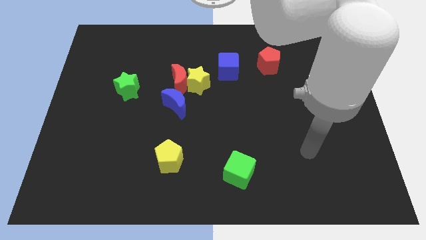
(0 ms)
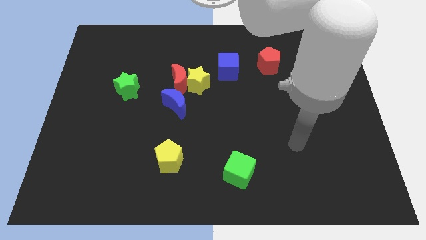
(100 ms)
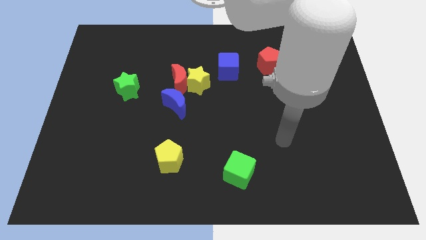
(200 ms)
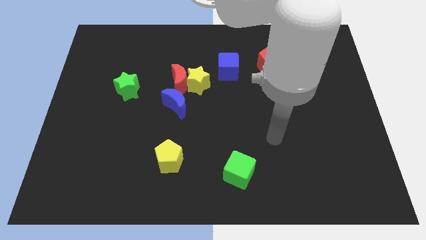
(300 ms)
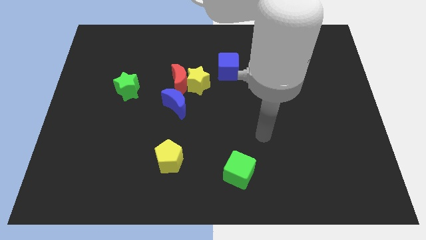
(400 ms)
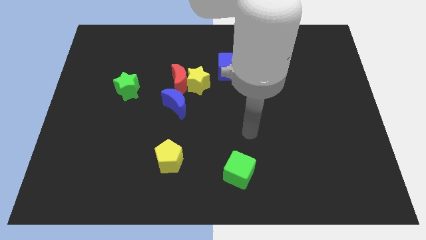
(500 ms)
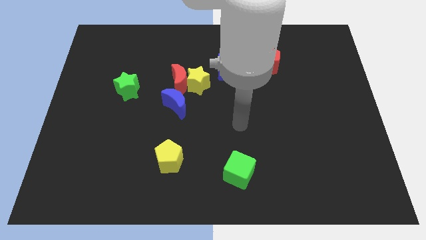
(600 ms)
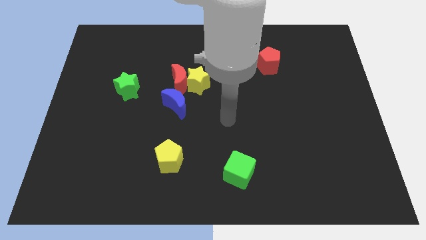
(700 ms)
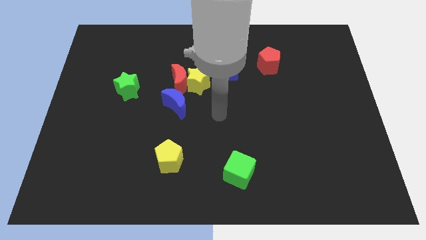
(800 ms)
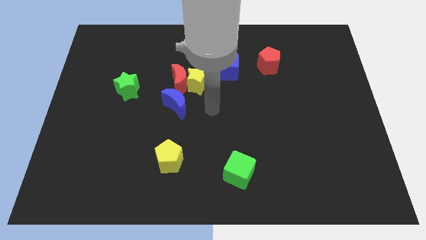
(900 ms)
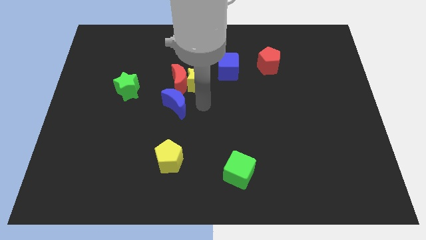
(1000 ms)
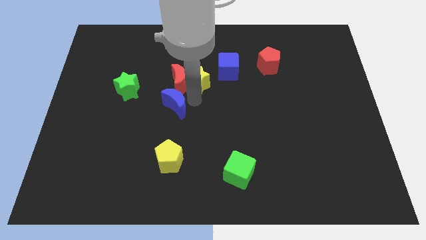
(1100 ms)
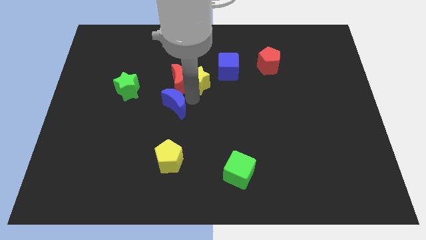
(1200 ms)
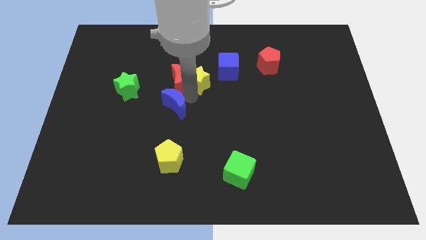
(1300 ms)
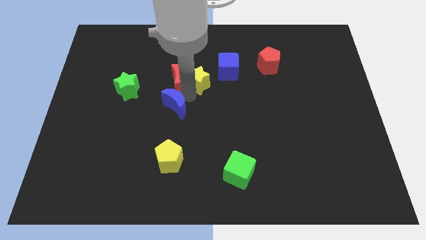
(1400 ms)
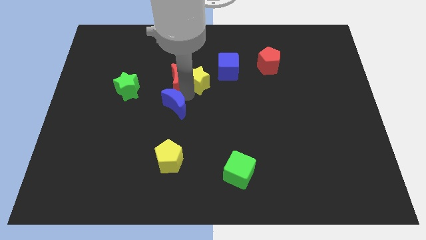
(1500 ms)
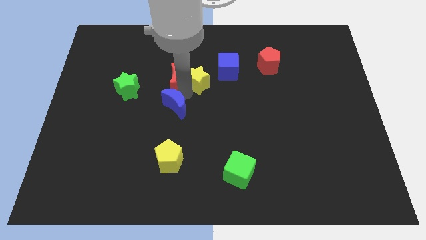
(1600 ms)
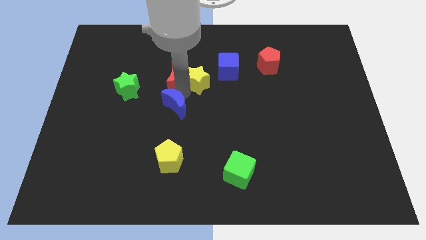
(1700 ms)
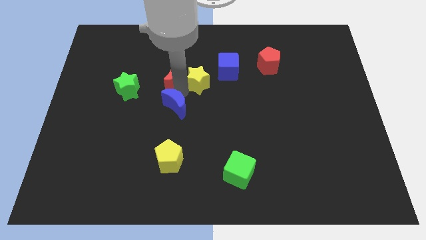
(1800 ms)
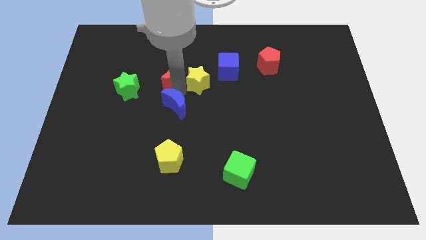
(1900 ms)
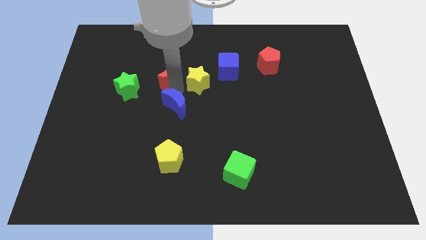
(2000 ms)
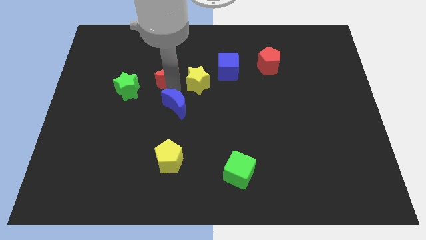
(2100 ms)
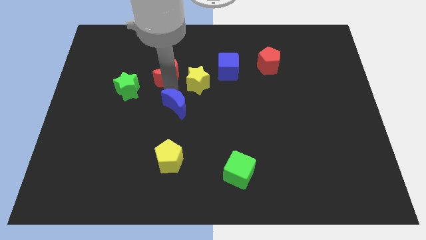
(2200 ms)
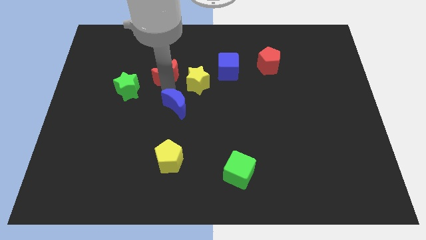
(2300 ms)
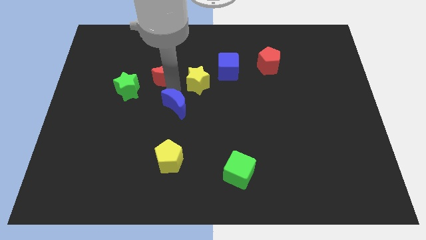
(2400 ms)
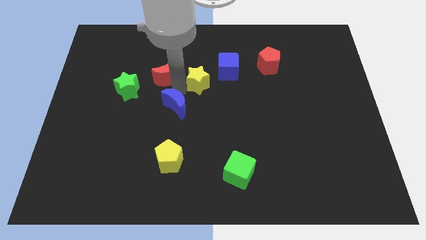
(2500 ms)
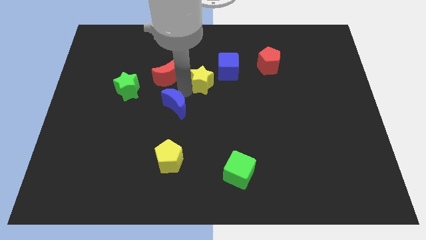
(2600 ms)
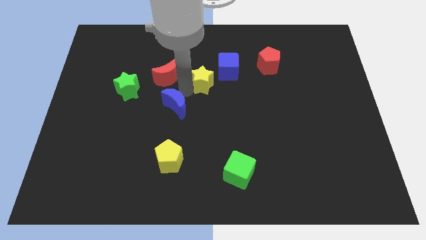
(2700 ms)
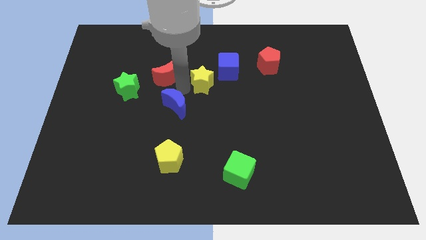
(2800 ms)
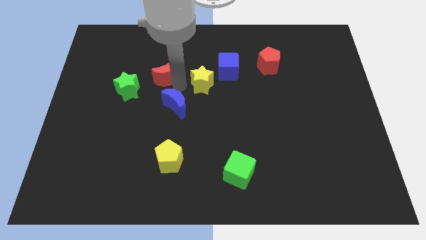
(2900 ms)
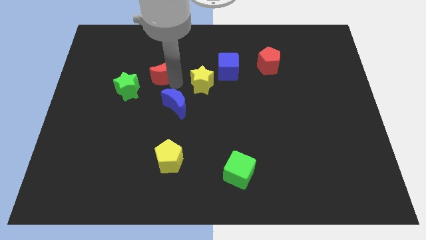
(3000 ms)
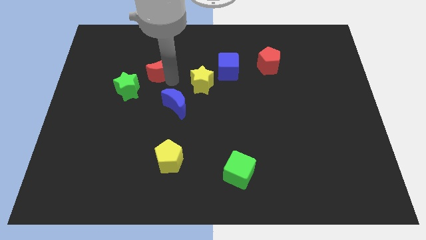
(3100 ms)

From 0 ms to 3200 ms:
move the red moon away from the yellow star and blue moon

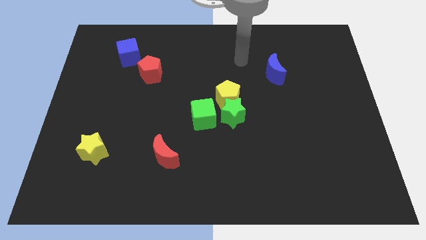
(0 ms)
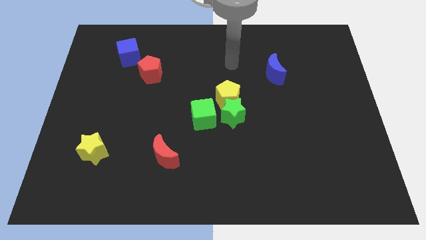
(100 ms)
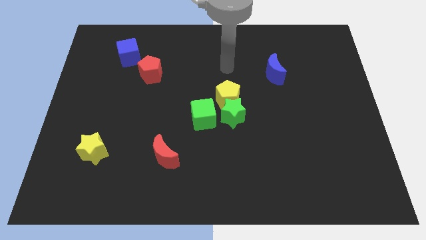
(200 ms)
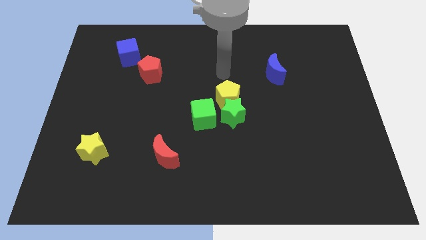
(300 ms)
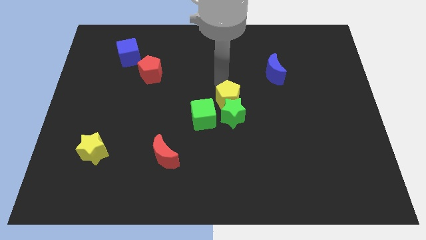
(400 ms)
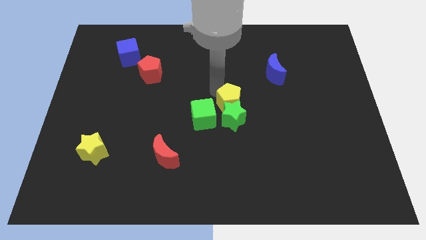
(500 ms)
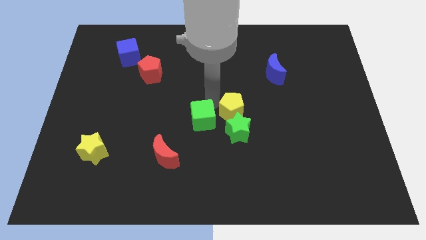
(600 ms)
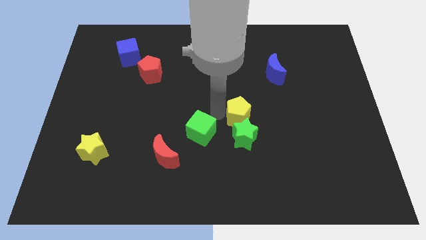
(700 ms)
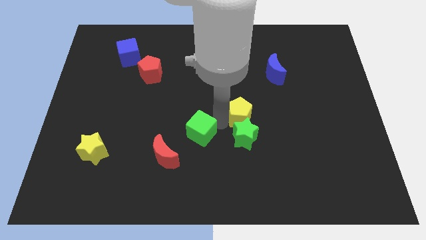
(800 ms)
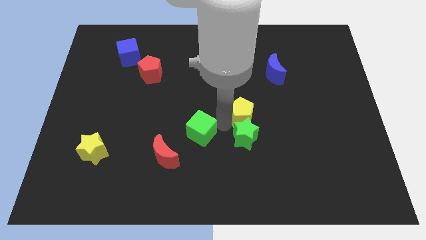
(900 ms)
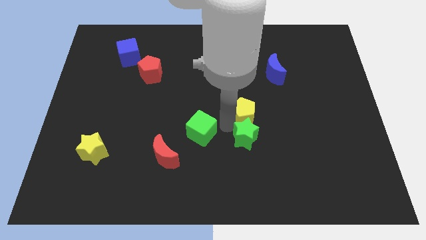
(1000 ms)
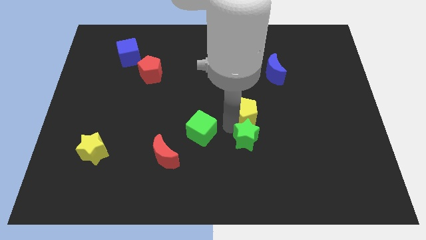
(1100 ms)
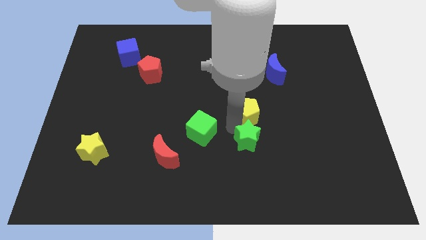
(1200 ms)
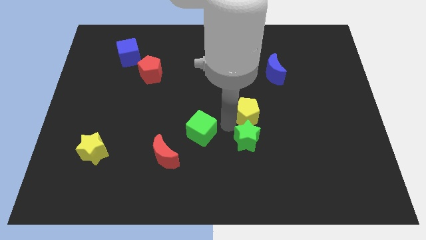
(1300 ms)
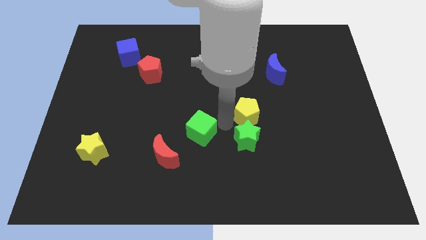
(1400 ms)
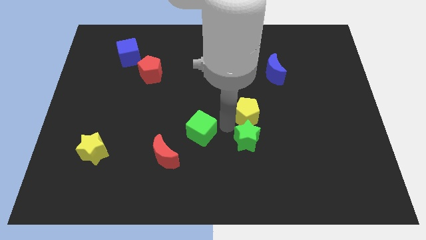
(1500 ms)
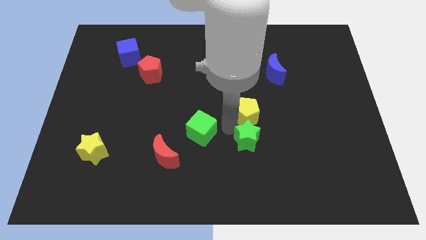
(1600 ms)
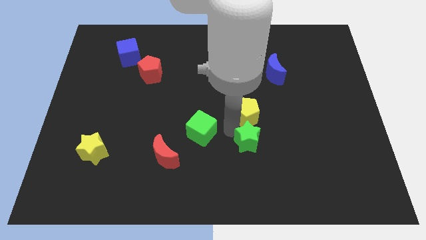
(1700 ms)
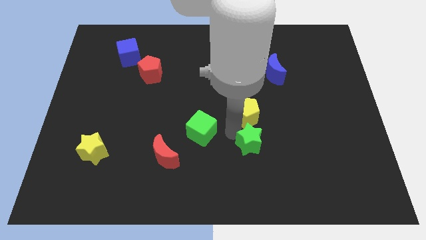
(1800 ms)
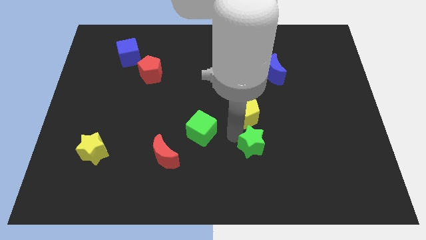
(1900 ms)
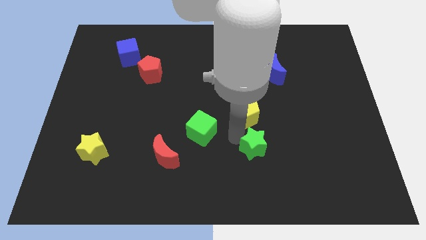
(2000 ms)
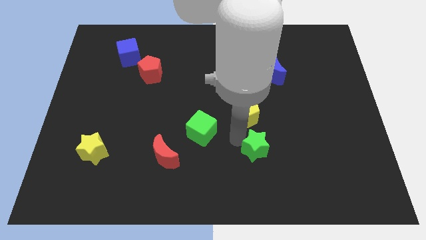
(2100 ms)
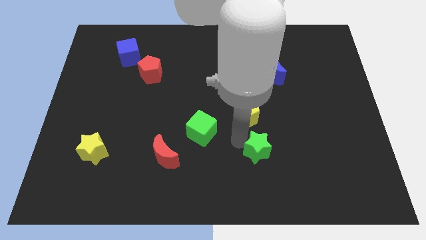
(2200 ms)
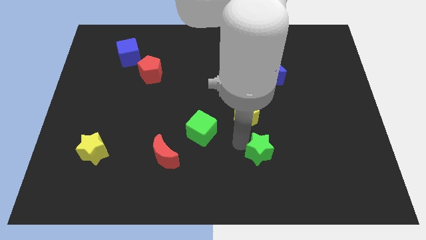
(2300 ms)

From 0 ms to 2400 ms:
pull the green star apart from the yellow pentagon and green cube

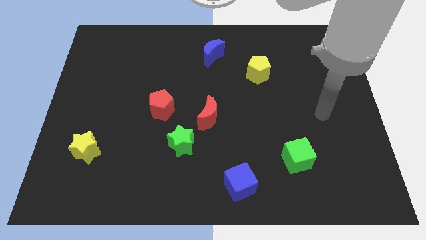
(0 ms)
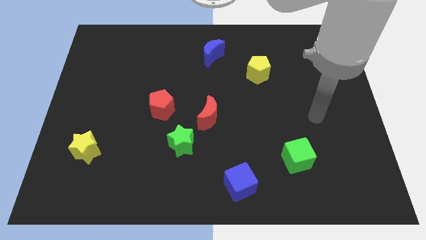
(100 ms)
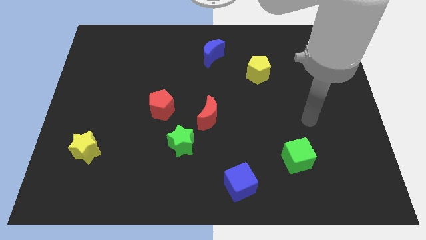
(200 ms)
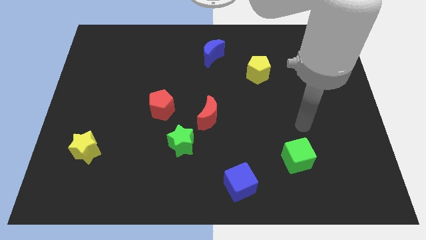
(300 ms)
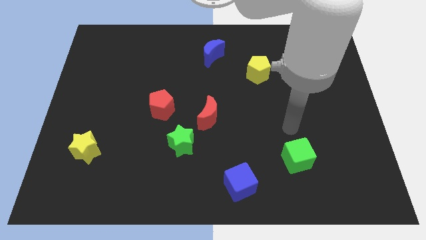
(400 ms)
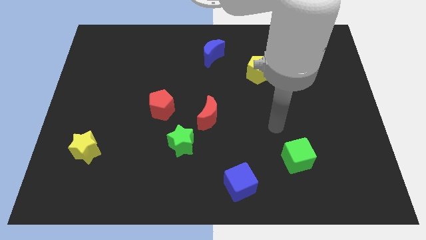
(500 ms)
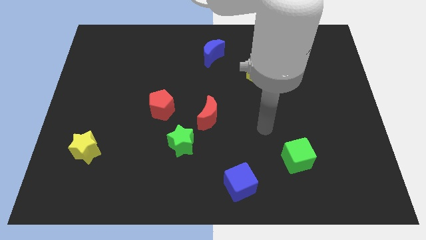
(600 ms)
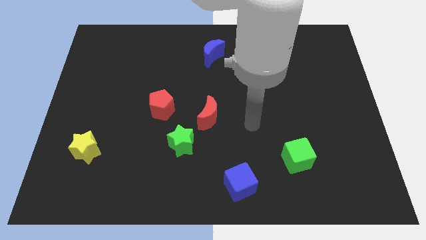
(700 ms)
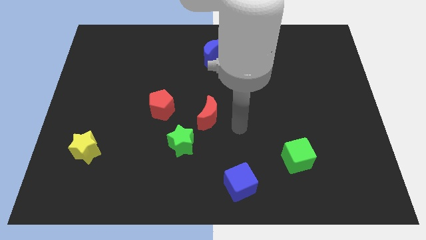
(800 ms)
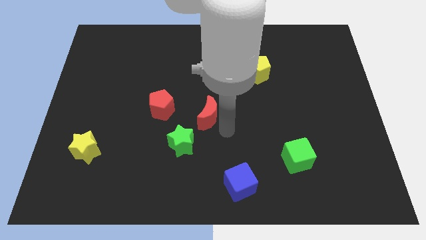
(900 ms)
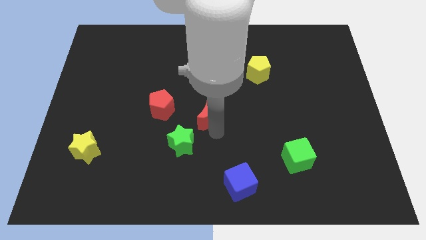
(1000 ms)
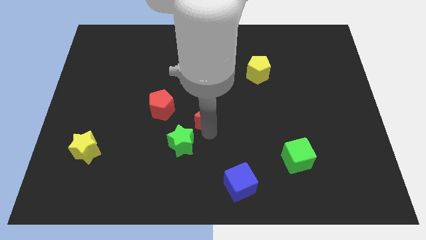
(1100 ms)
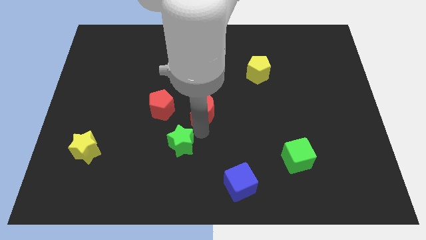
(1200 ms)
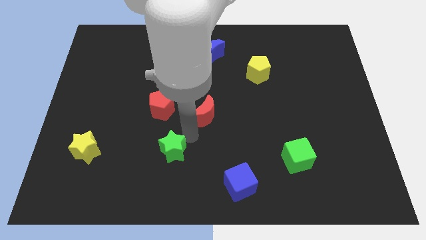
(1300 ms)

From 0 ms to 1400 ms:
pull the red moon apart from the green star

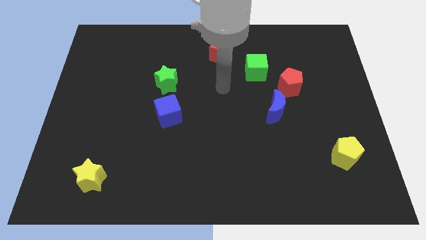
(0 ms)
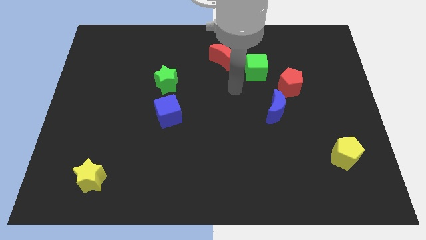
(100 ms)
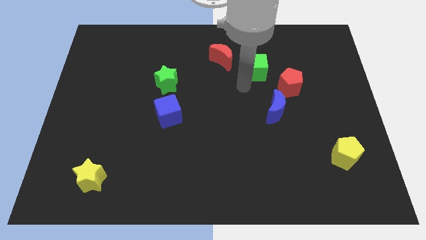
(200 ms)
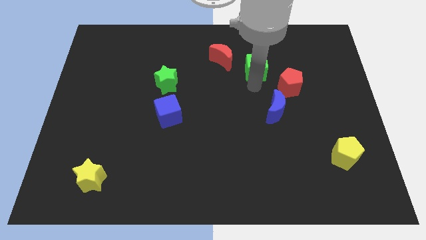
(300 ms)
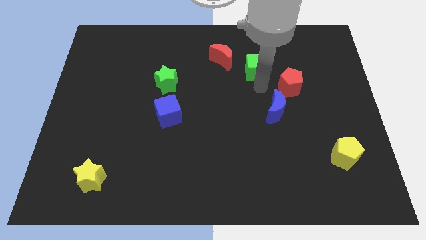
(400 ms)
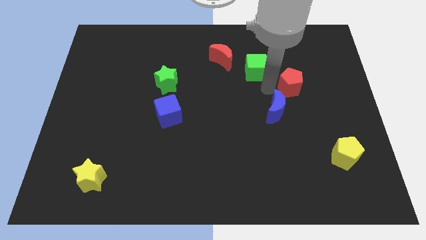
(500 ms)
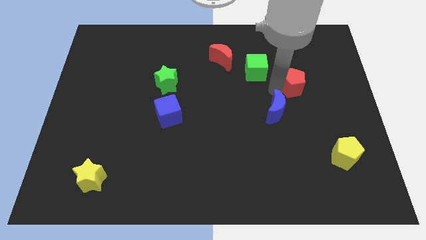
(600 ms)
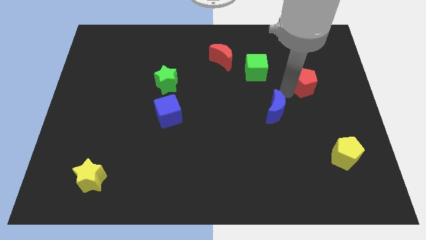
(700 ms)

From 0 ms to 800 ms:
move the blue moon away from the red pentagon

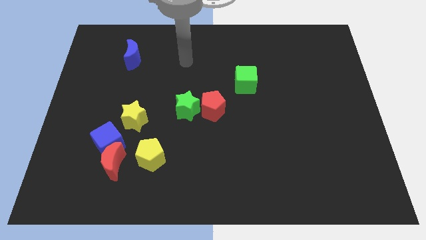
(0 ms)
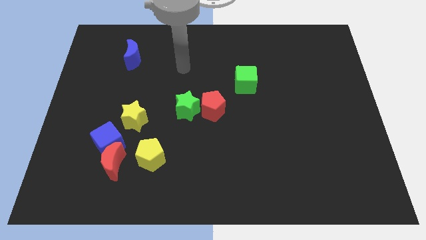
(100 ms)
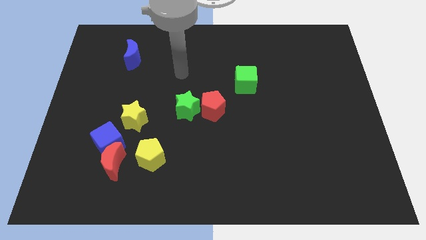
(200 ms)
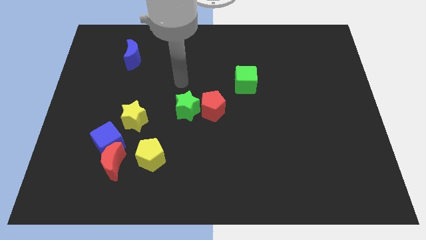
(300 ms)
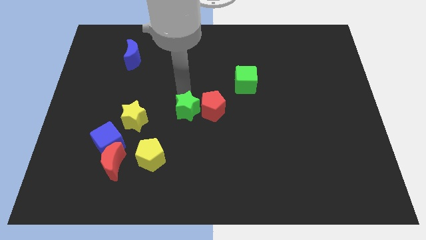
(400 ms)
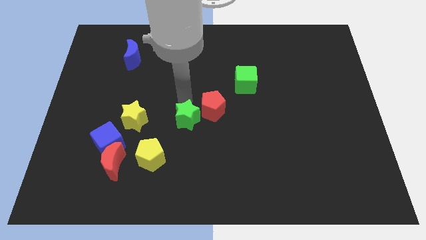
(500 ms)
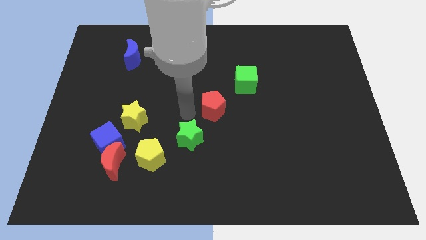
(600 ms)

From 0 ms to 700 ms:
separate the red pentagon from the green star

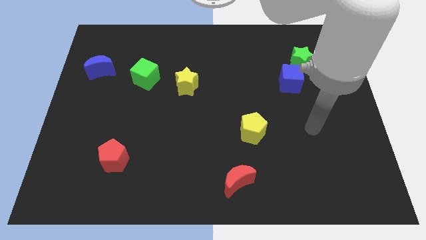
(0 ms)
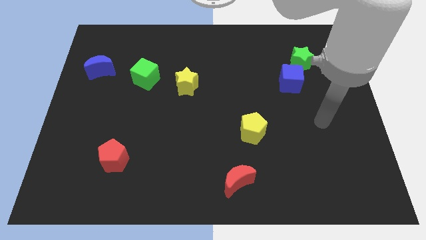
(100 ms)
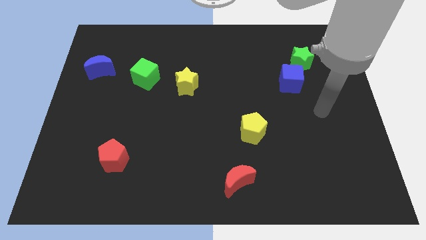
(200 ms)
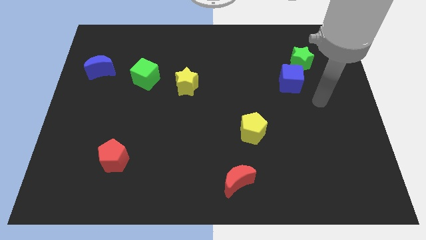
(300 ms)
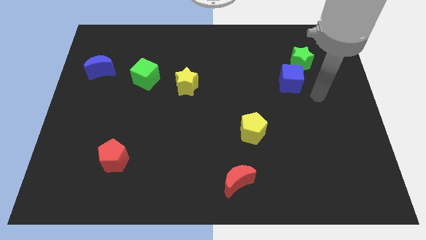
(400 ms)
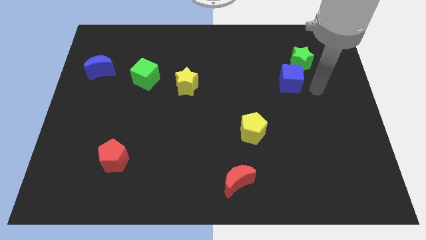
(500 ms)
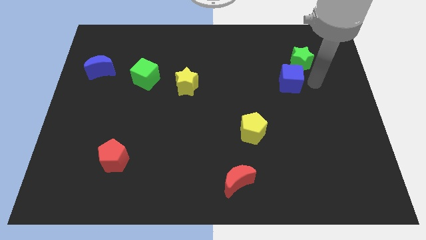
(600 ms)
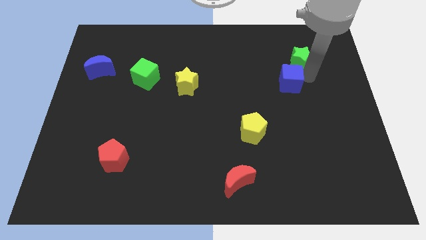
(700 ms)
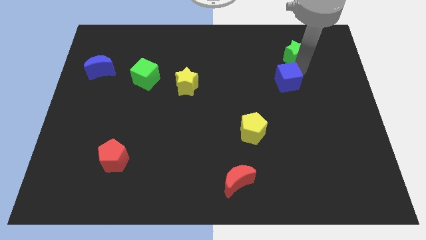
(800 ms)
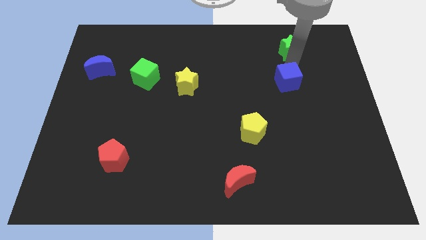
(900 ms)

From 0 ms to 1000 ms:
pull the blue cube apart from the green star

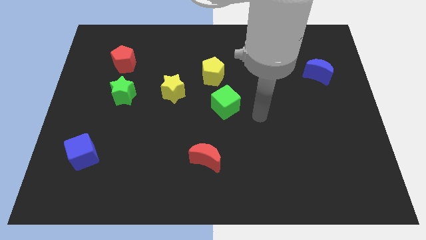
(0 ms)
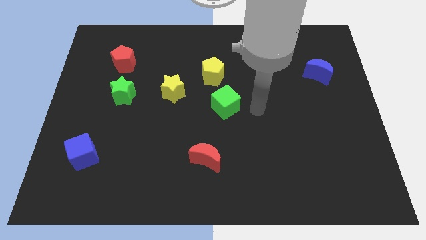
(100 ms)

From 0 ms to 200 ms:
move the green cube away from the yellow pentagon
